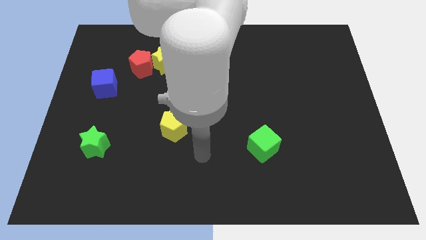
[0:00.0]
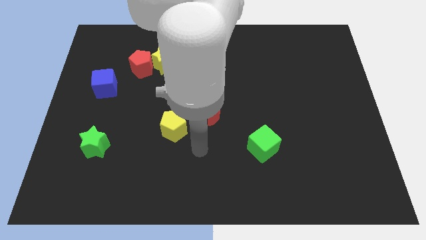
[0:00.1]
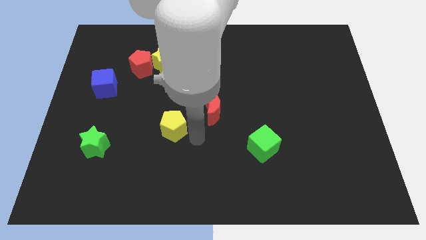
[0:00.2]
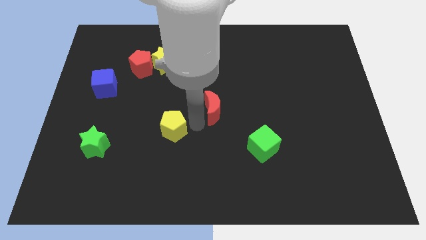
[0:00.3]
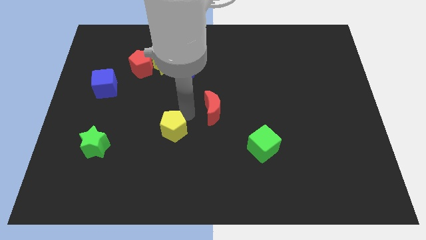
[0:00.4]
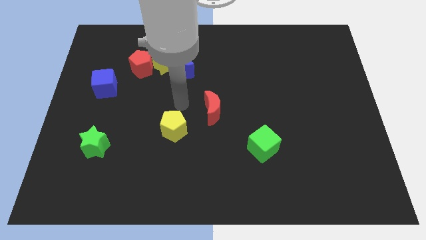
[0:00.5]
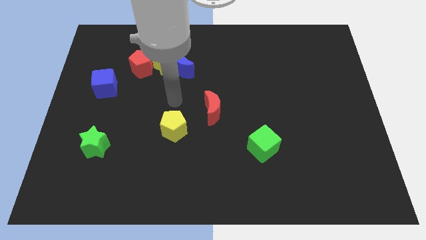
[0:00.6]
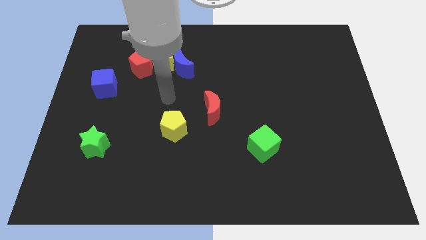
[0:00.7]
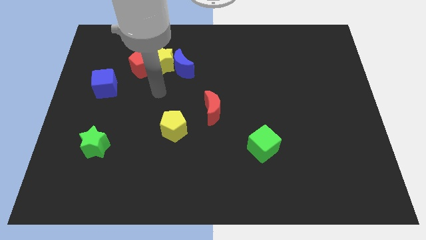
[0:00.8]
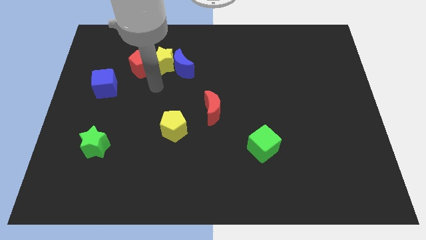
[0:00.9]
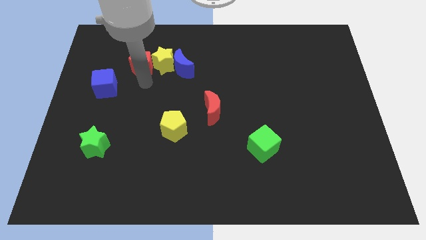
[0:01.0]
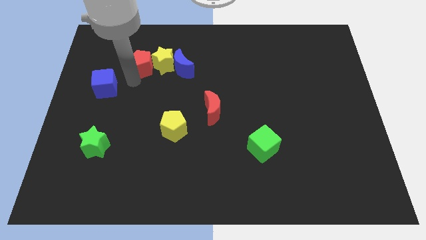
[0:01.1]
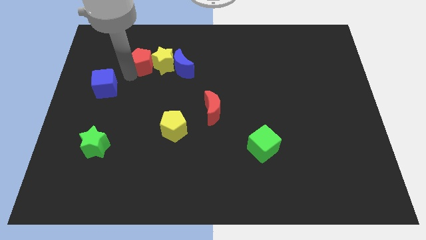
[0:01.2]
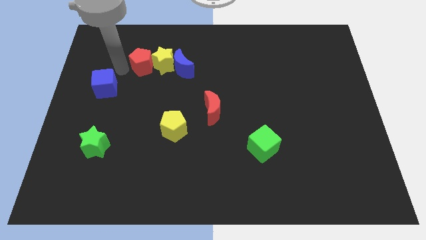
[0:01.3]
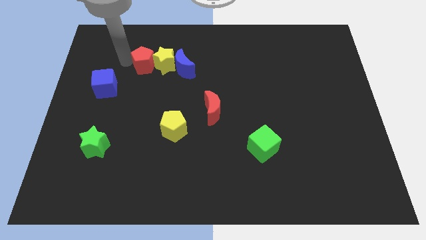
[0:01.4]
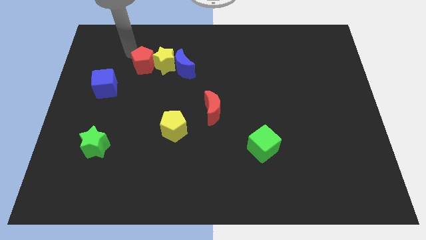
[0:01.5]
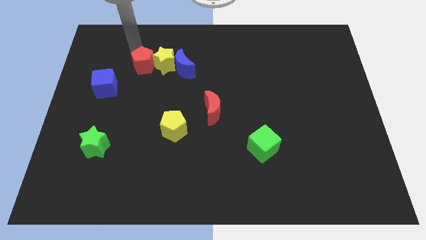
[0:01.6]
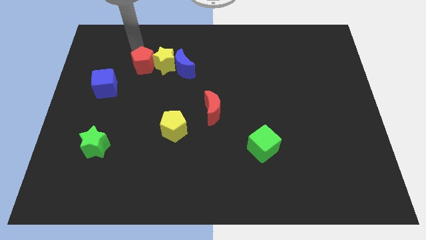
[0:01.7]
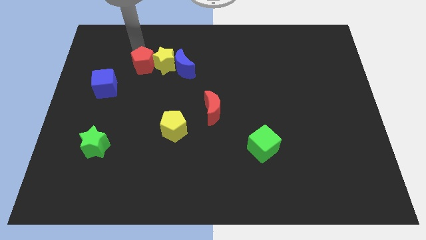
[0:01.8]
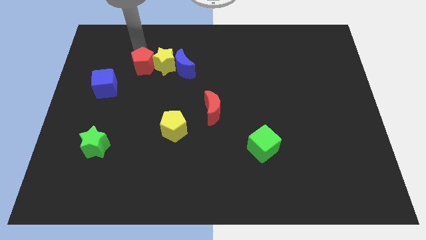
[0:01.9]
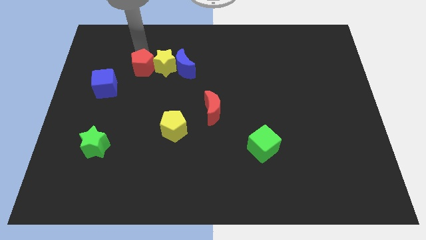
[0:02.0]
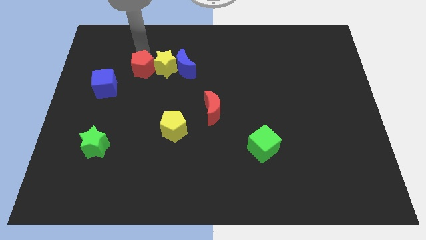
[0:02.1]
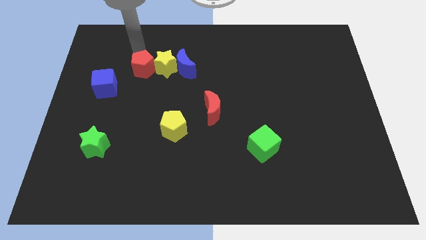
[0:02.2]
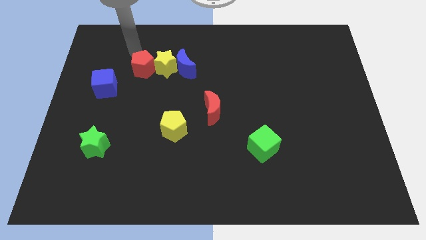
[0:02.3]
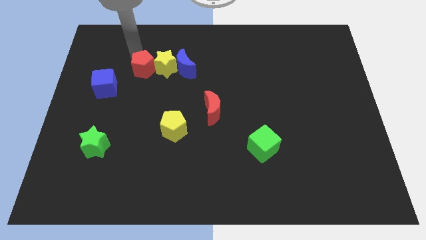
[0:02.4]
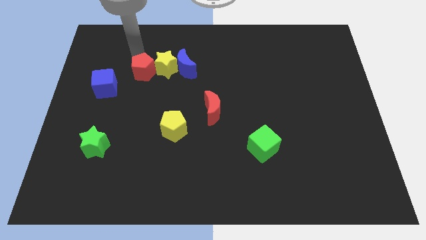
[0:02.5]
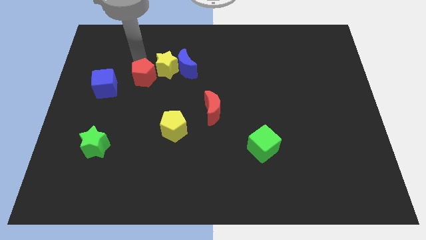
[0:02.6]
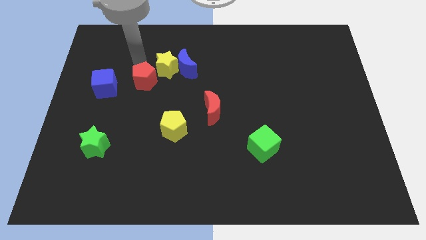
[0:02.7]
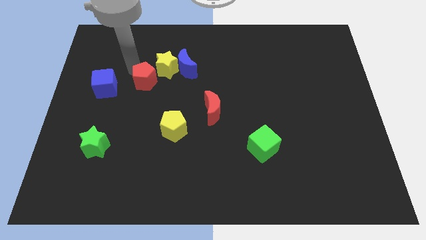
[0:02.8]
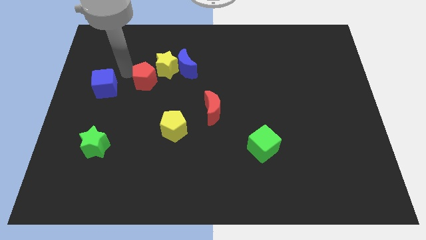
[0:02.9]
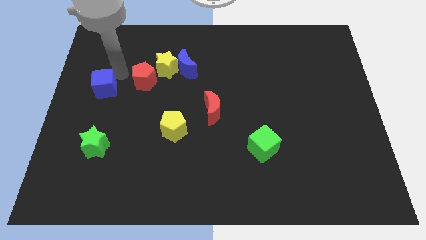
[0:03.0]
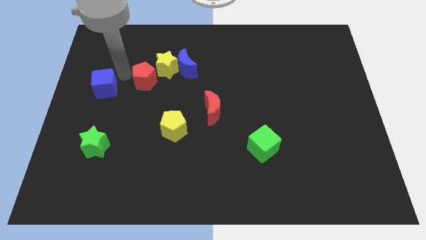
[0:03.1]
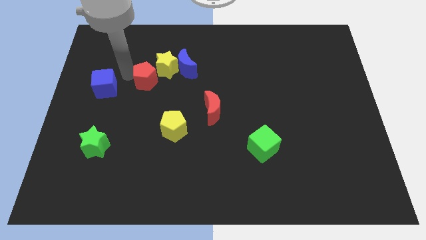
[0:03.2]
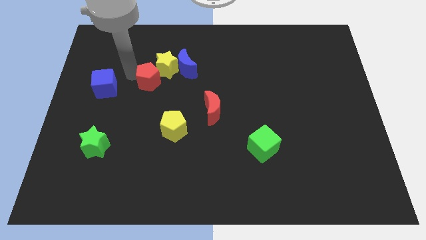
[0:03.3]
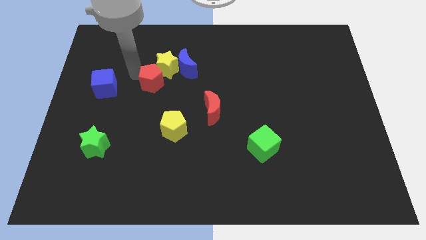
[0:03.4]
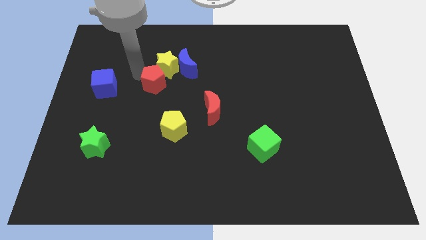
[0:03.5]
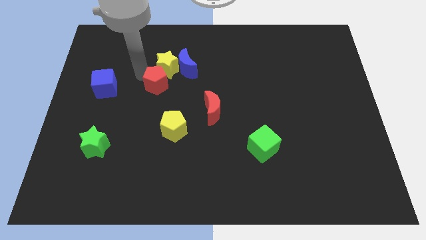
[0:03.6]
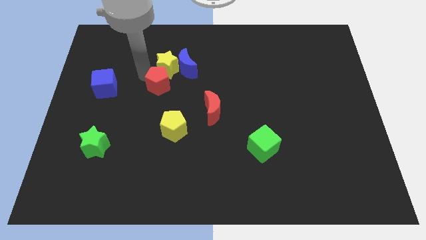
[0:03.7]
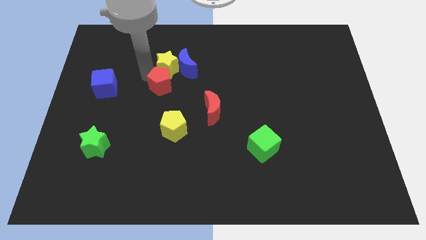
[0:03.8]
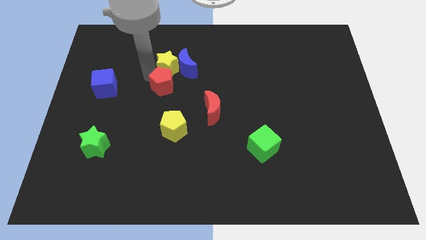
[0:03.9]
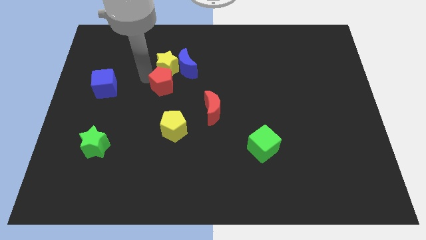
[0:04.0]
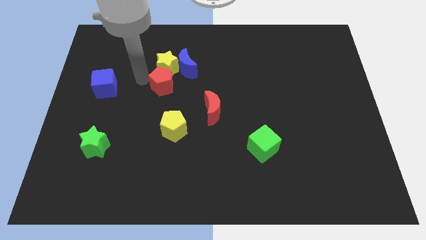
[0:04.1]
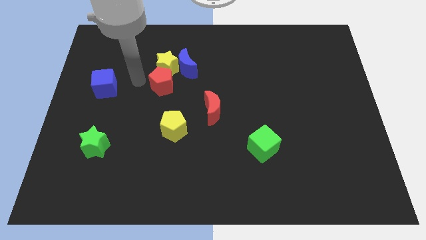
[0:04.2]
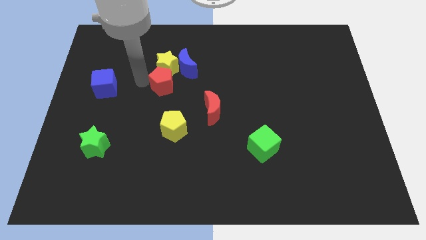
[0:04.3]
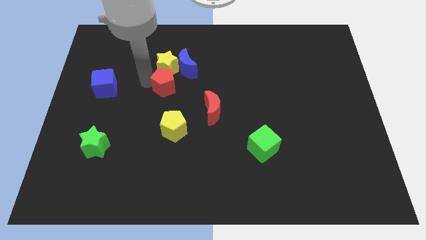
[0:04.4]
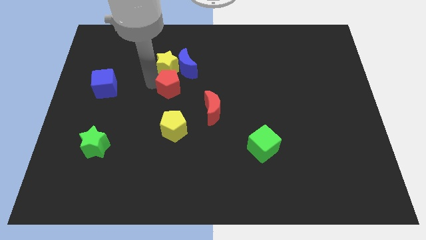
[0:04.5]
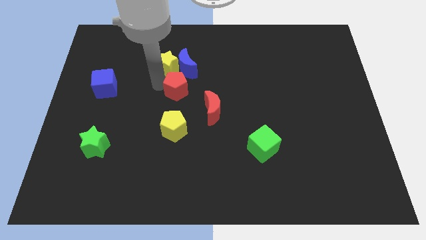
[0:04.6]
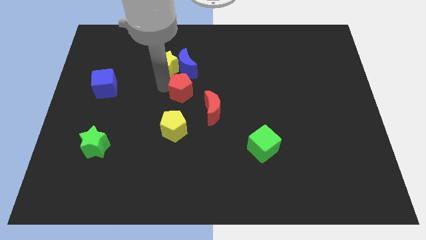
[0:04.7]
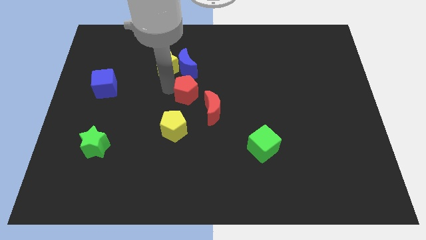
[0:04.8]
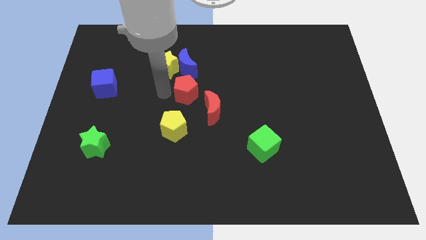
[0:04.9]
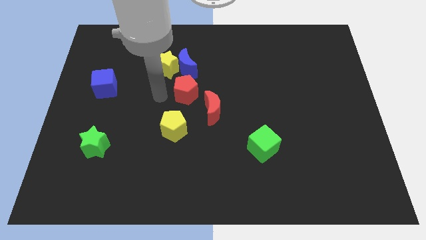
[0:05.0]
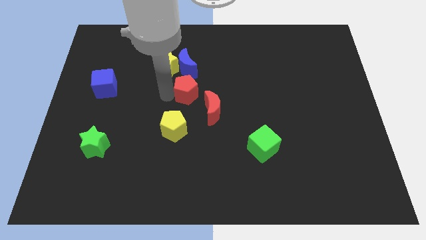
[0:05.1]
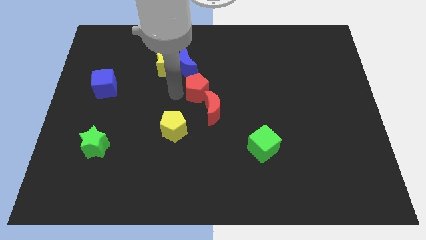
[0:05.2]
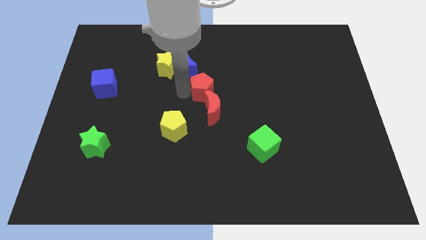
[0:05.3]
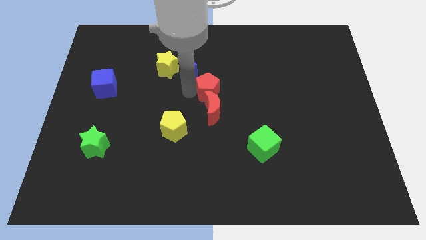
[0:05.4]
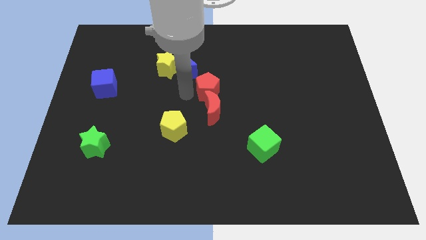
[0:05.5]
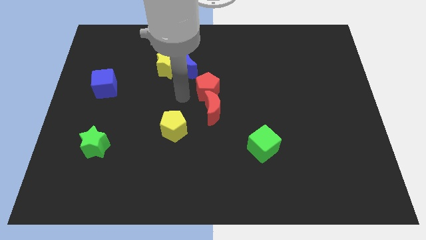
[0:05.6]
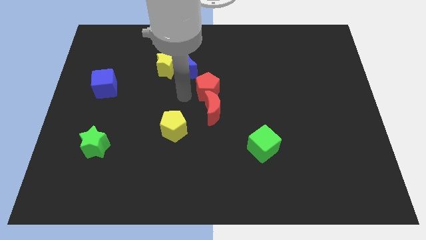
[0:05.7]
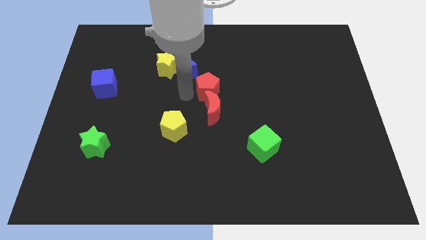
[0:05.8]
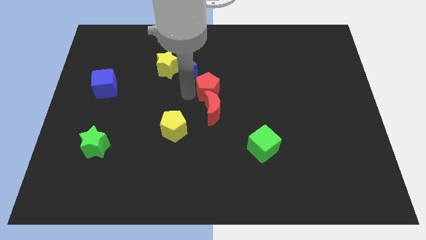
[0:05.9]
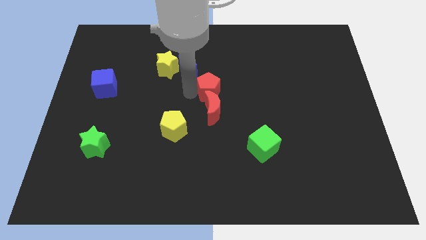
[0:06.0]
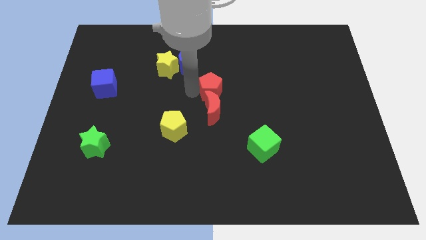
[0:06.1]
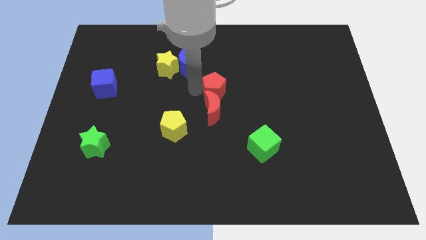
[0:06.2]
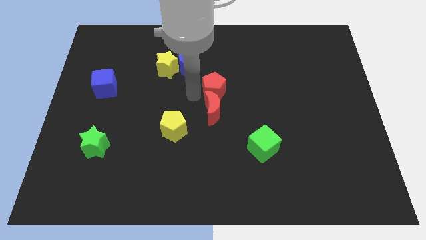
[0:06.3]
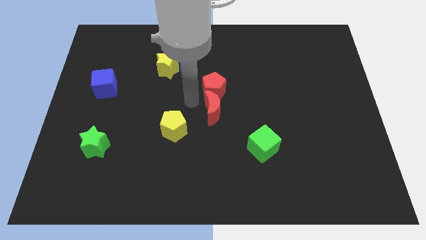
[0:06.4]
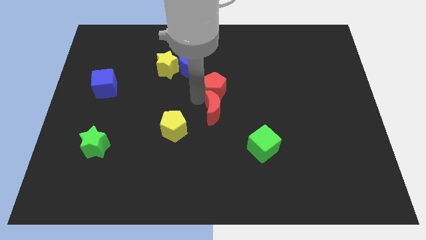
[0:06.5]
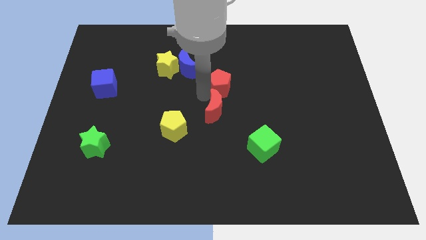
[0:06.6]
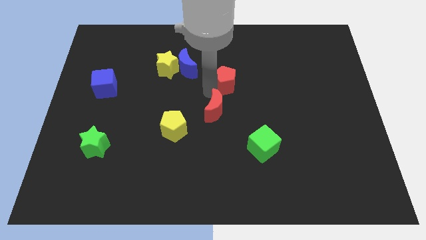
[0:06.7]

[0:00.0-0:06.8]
move the red pentagon right

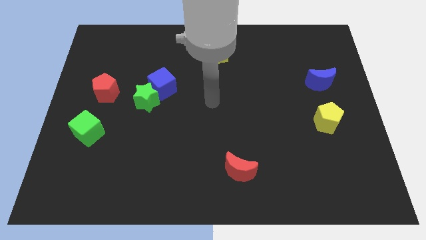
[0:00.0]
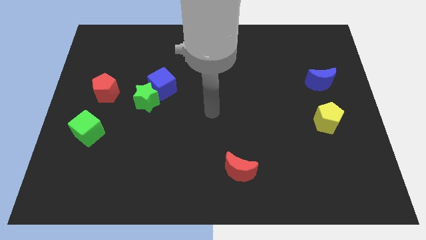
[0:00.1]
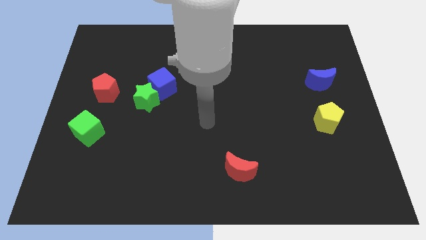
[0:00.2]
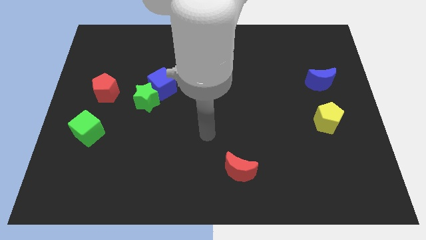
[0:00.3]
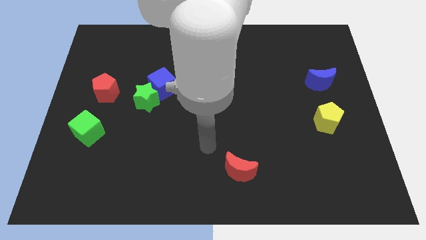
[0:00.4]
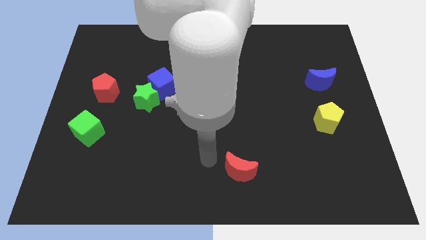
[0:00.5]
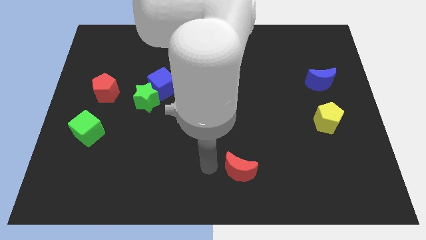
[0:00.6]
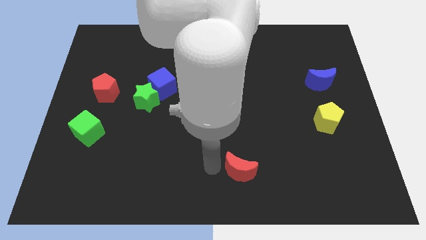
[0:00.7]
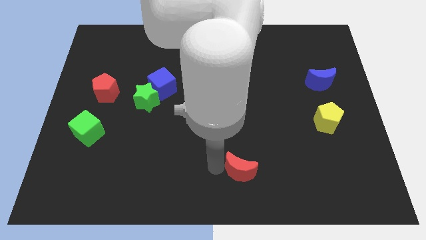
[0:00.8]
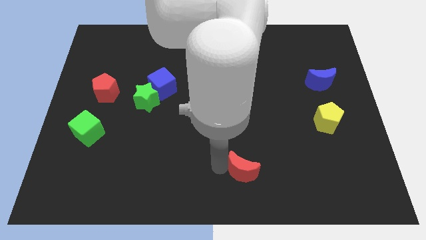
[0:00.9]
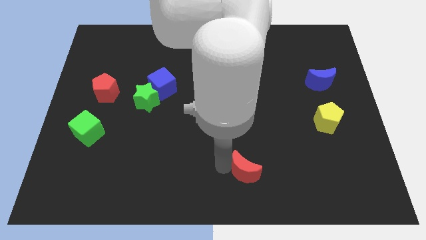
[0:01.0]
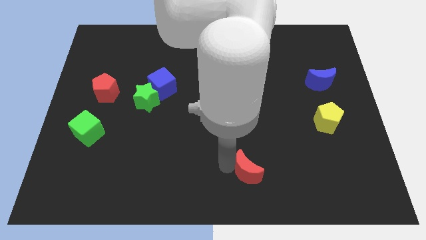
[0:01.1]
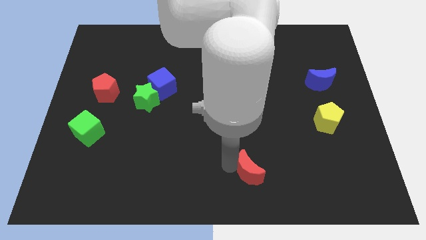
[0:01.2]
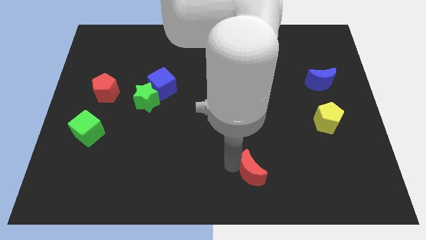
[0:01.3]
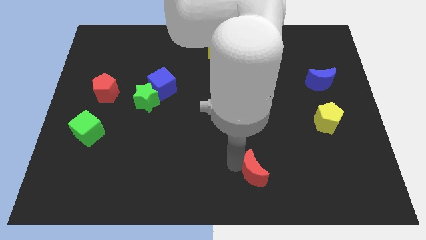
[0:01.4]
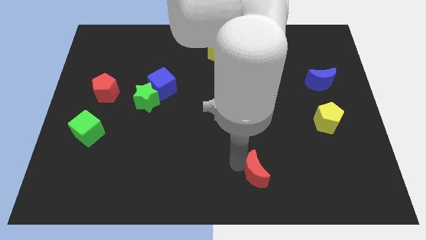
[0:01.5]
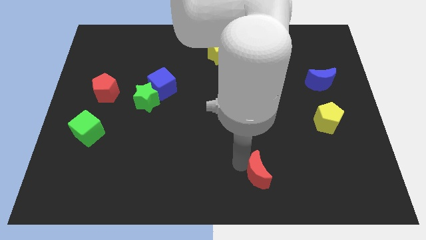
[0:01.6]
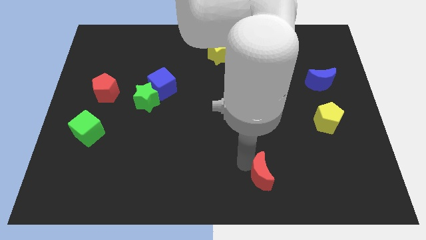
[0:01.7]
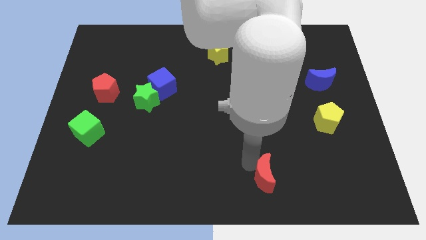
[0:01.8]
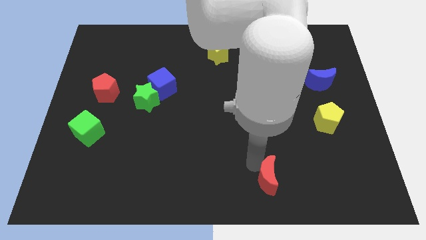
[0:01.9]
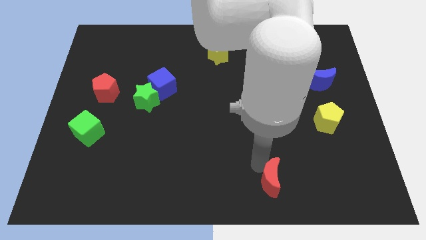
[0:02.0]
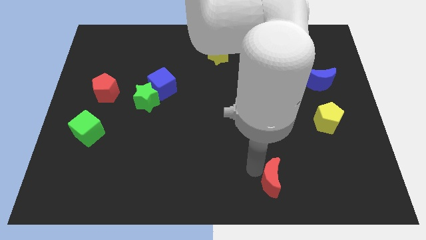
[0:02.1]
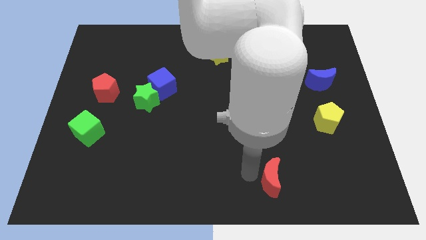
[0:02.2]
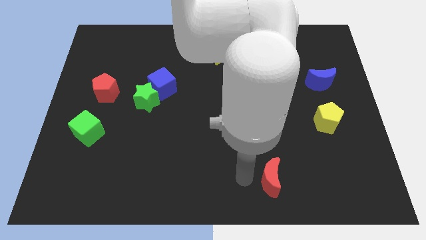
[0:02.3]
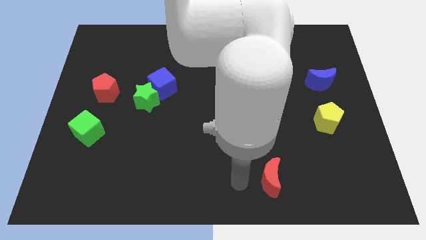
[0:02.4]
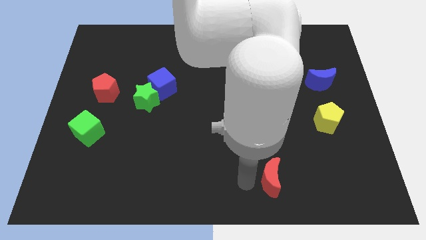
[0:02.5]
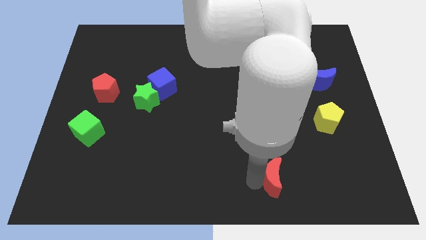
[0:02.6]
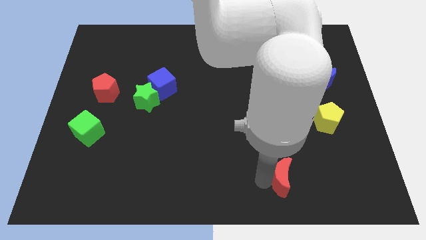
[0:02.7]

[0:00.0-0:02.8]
slightly move the red moon right
